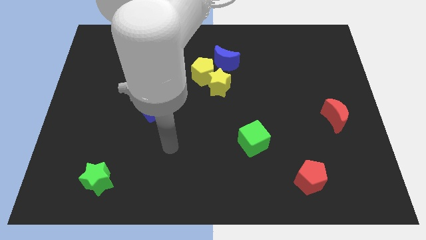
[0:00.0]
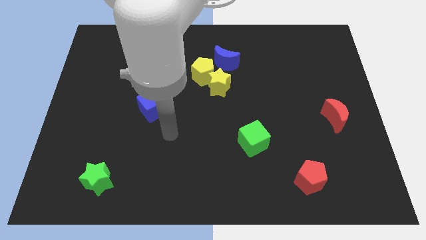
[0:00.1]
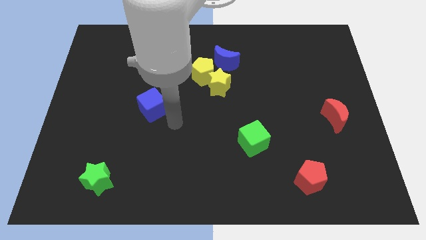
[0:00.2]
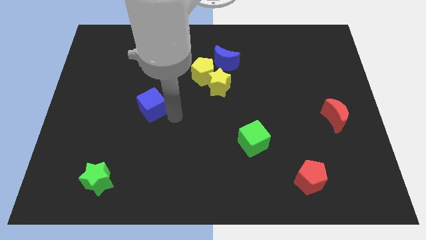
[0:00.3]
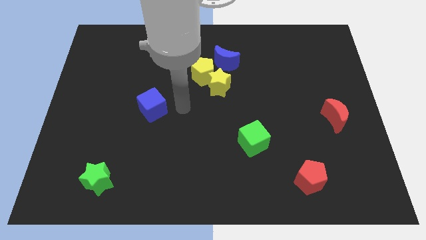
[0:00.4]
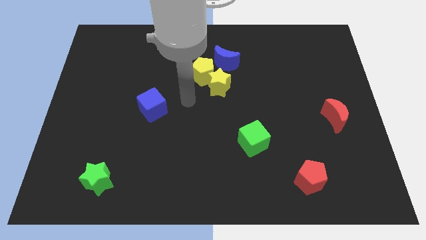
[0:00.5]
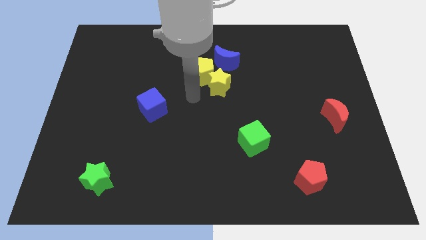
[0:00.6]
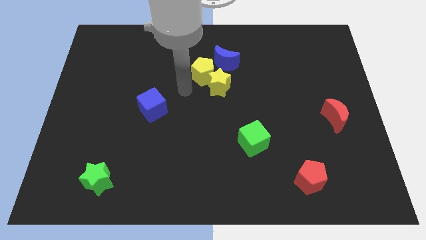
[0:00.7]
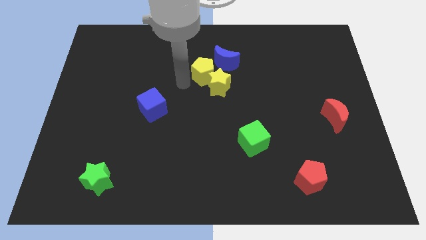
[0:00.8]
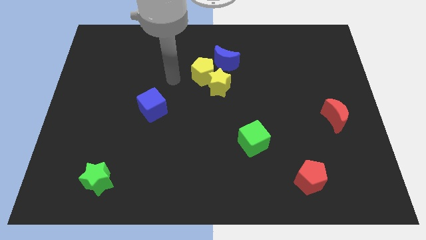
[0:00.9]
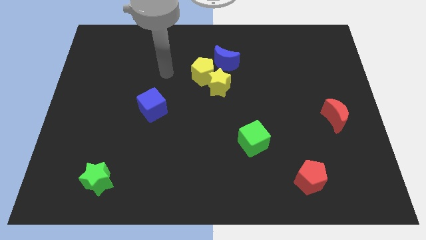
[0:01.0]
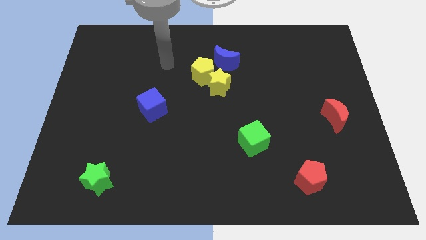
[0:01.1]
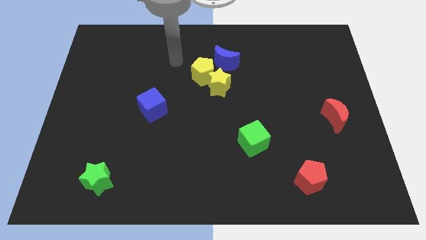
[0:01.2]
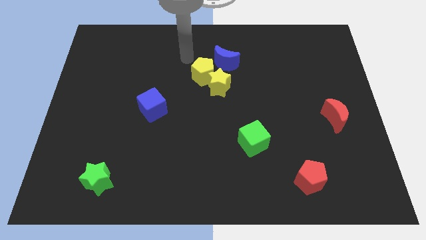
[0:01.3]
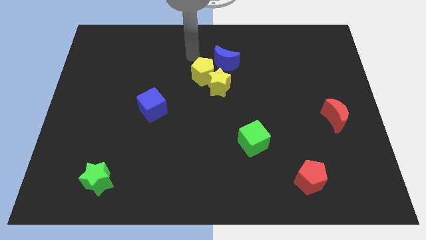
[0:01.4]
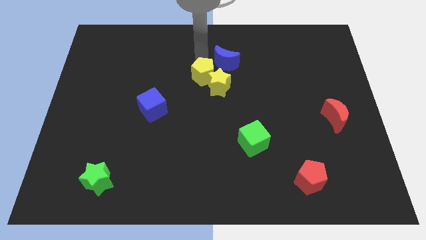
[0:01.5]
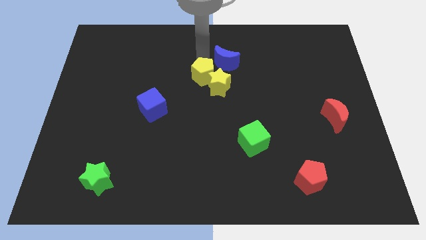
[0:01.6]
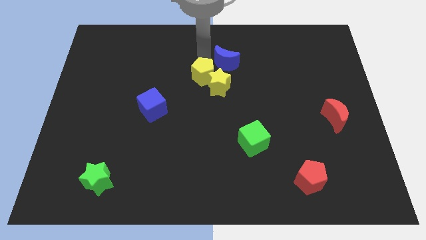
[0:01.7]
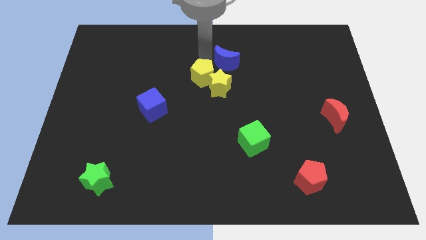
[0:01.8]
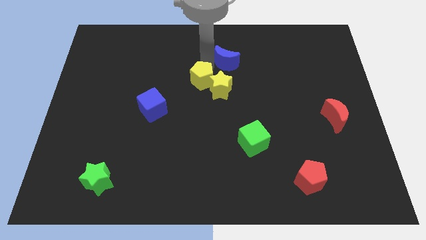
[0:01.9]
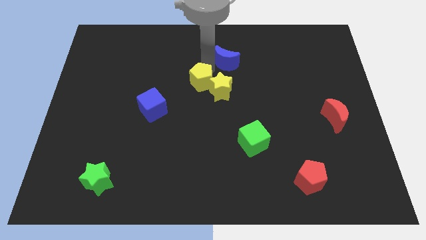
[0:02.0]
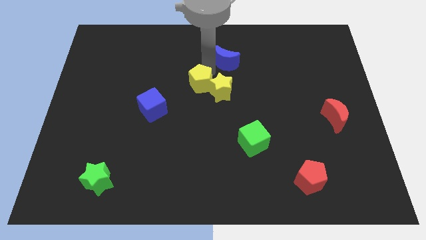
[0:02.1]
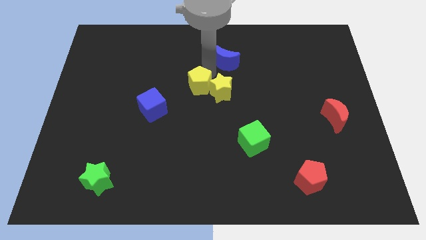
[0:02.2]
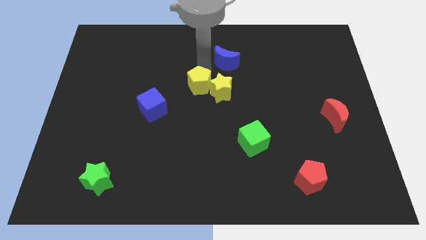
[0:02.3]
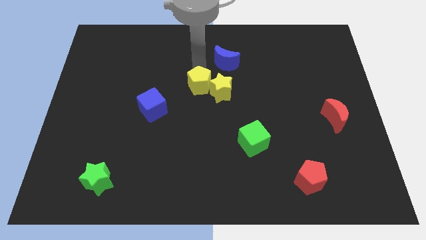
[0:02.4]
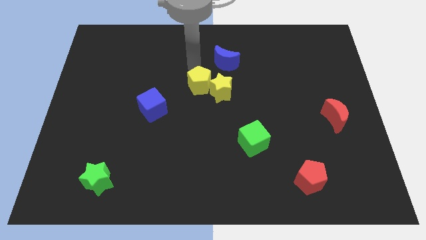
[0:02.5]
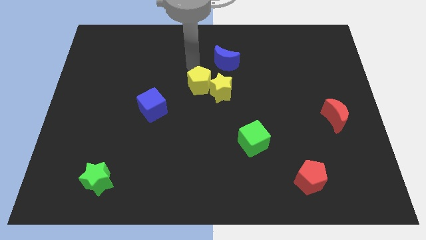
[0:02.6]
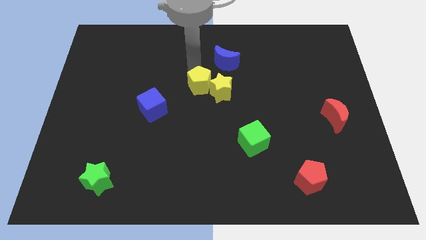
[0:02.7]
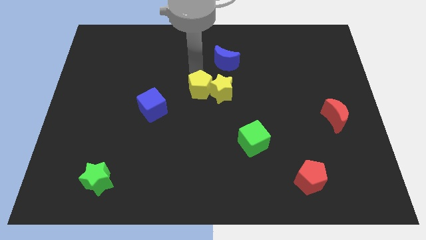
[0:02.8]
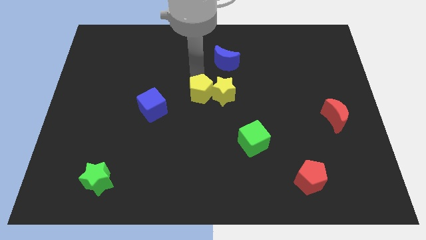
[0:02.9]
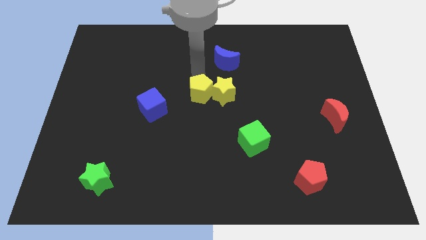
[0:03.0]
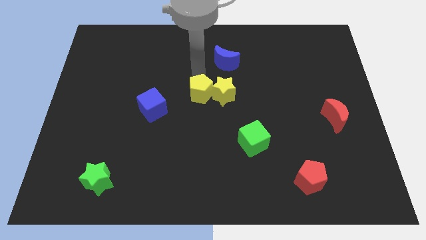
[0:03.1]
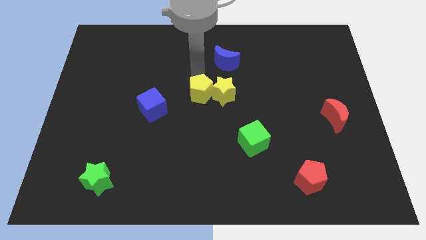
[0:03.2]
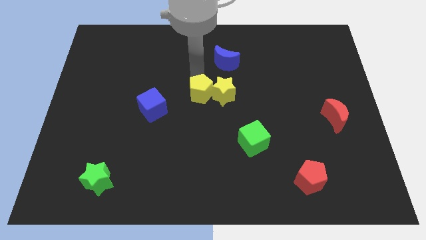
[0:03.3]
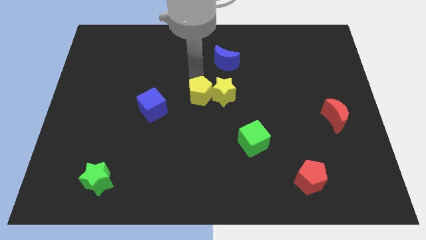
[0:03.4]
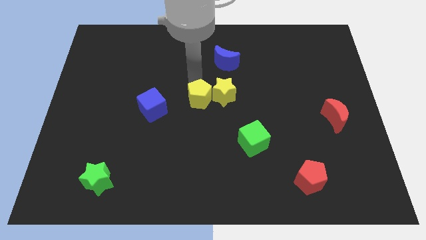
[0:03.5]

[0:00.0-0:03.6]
slightly move the yellow pentagon downwards

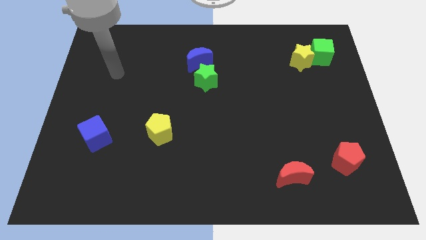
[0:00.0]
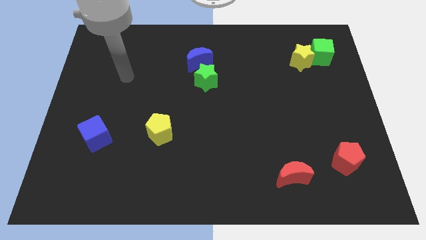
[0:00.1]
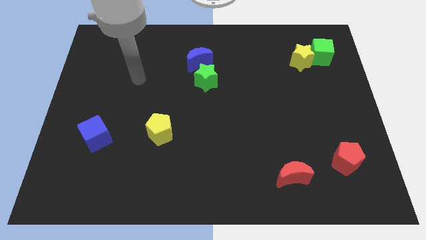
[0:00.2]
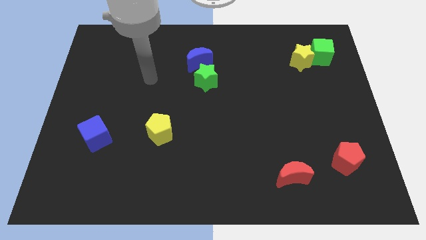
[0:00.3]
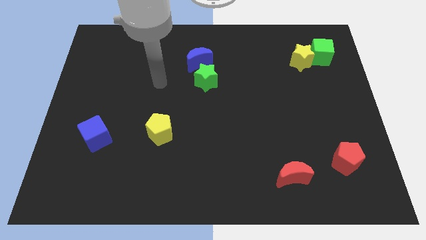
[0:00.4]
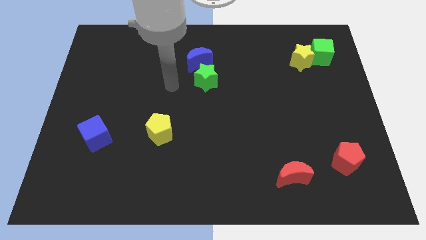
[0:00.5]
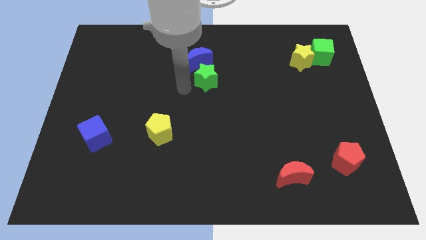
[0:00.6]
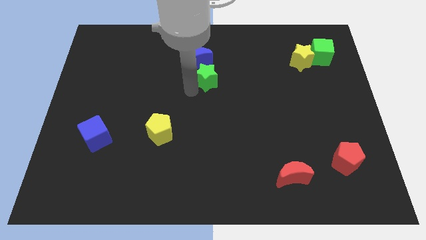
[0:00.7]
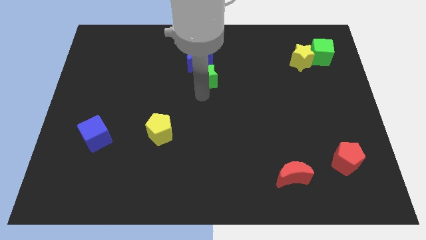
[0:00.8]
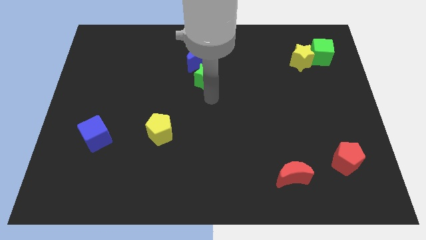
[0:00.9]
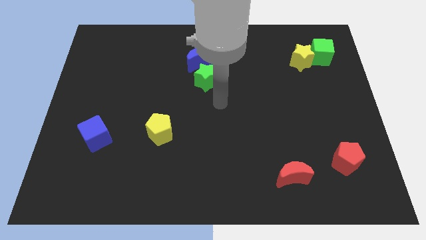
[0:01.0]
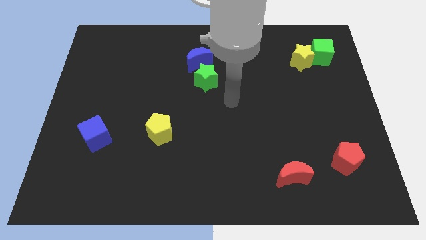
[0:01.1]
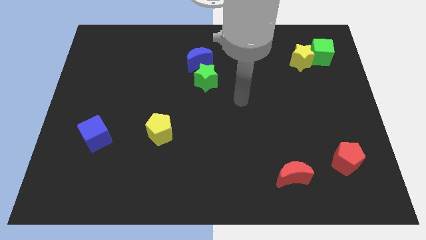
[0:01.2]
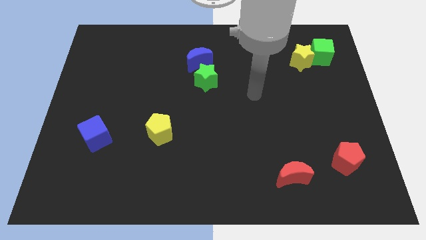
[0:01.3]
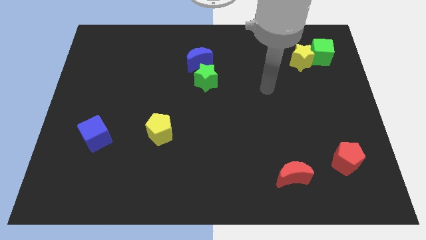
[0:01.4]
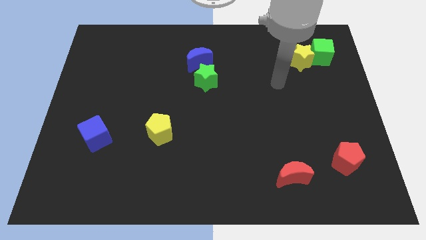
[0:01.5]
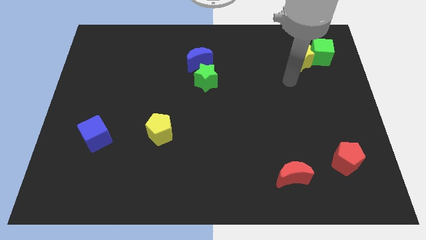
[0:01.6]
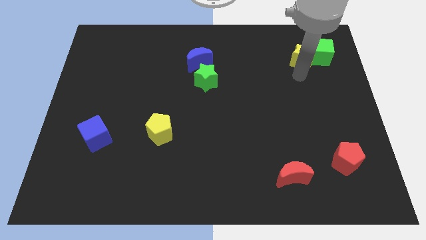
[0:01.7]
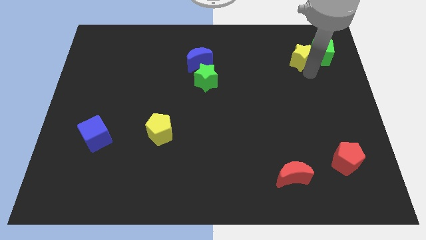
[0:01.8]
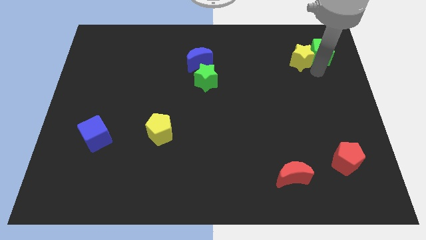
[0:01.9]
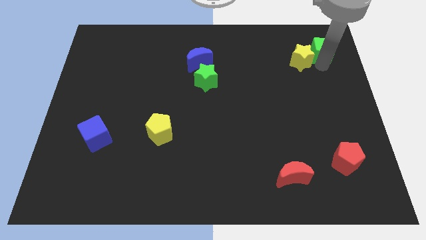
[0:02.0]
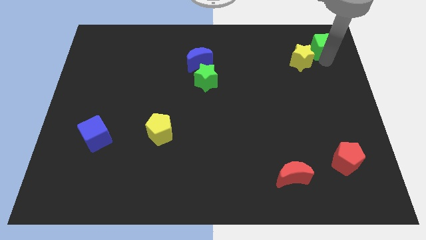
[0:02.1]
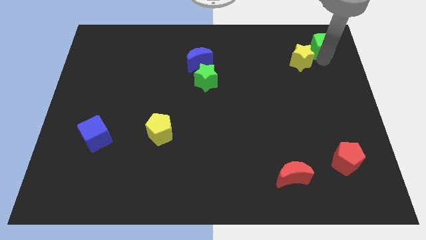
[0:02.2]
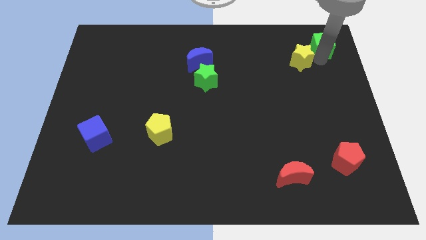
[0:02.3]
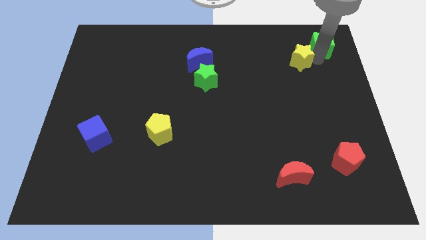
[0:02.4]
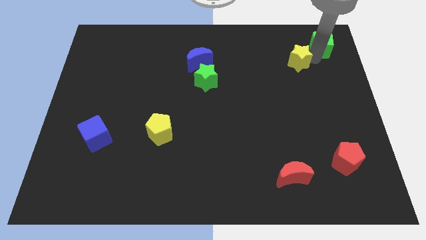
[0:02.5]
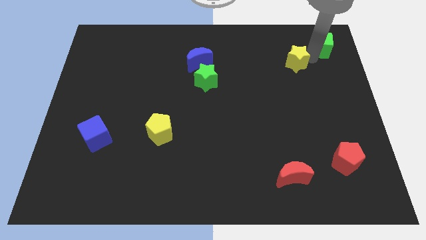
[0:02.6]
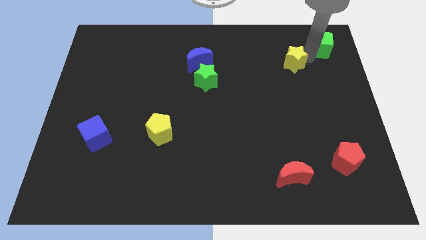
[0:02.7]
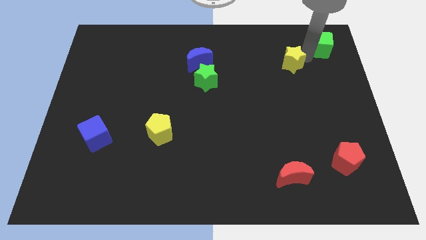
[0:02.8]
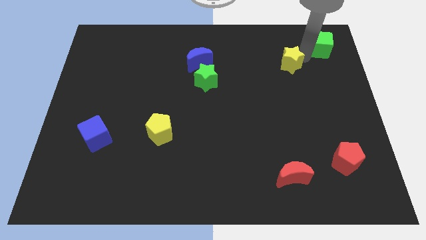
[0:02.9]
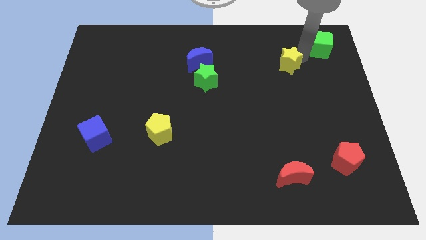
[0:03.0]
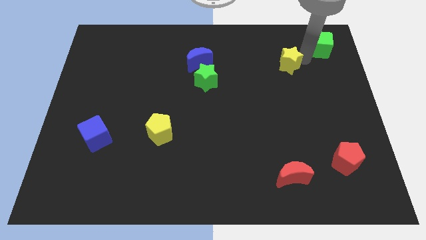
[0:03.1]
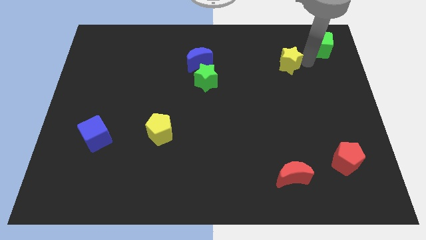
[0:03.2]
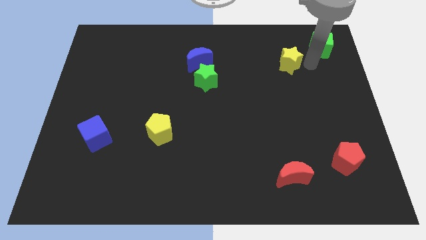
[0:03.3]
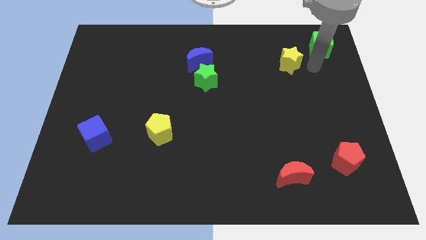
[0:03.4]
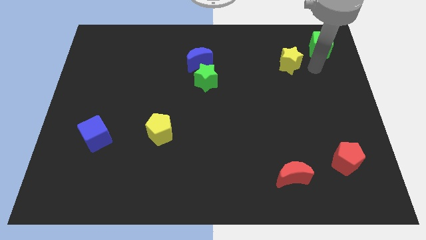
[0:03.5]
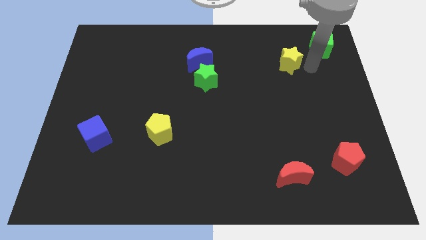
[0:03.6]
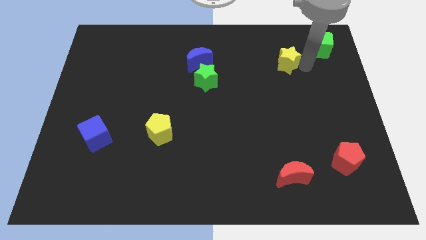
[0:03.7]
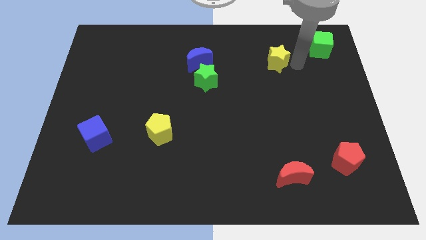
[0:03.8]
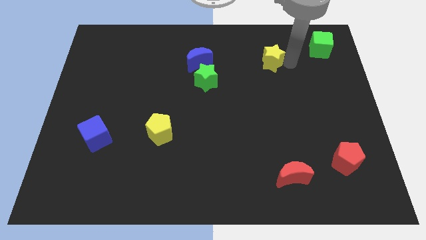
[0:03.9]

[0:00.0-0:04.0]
slightly push the yellow star left

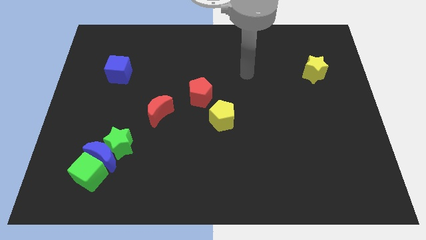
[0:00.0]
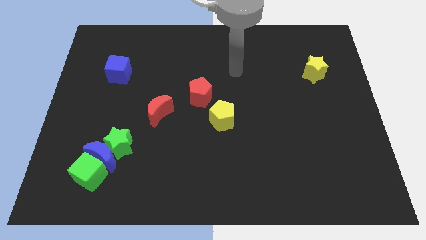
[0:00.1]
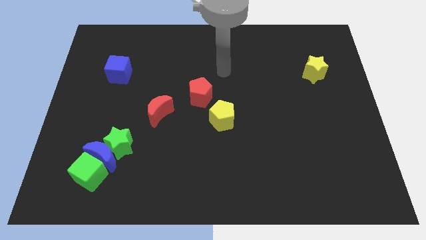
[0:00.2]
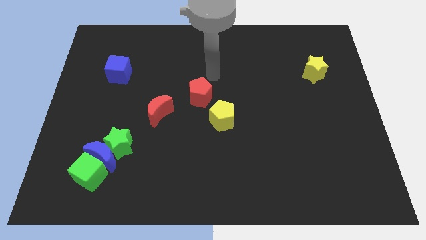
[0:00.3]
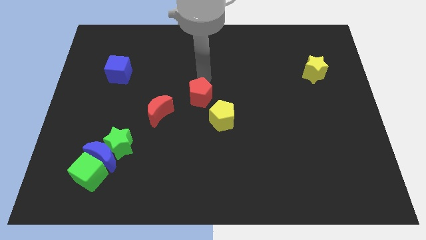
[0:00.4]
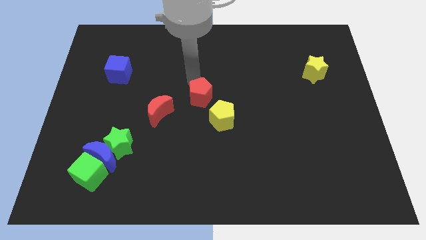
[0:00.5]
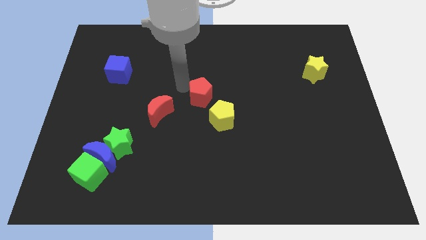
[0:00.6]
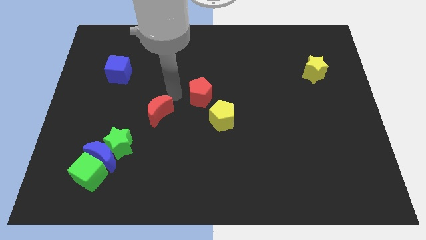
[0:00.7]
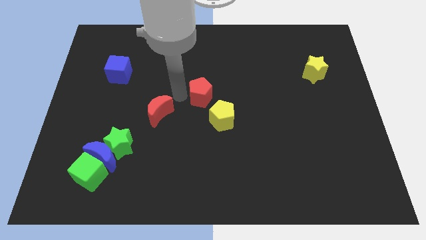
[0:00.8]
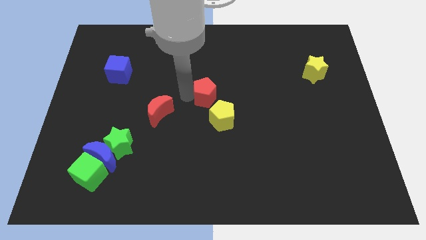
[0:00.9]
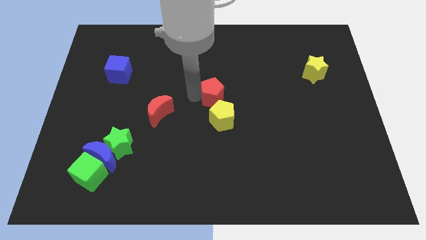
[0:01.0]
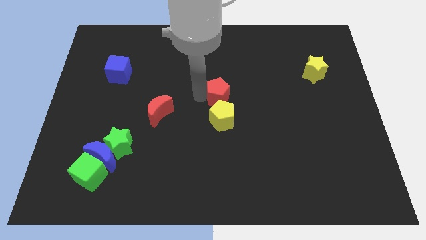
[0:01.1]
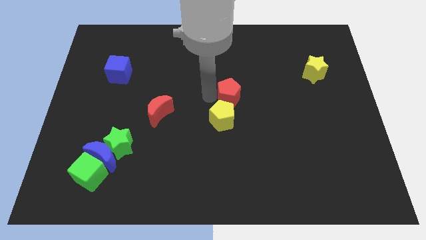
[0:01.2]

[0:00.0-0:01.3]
slightly move the red pentagon right
